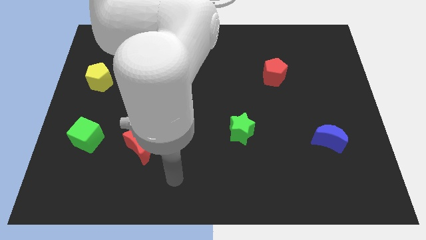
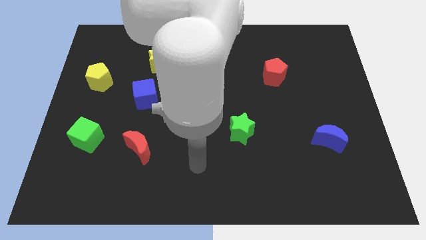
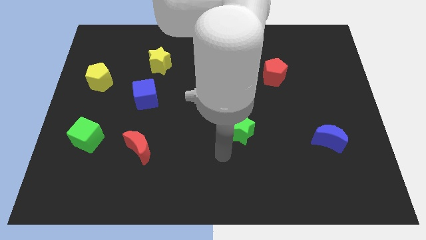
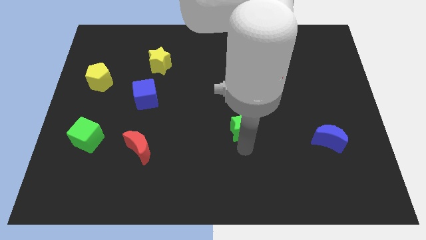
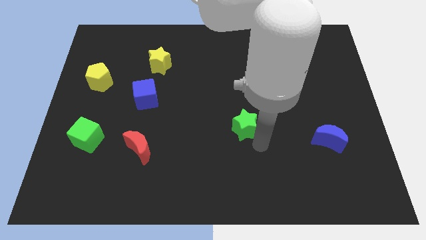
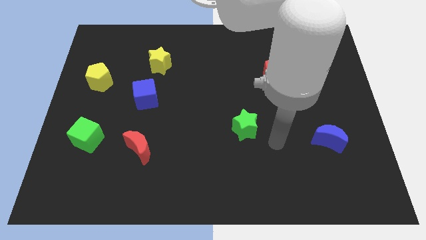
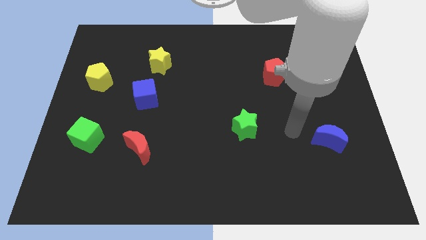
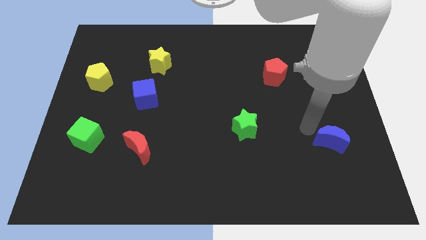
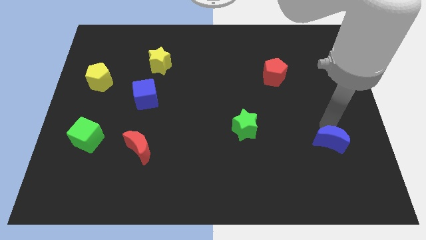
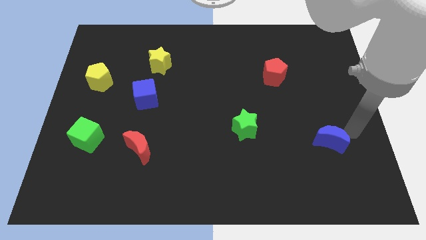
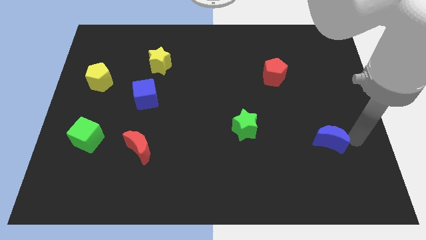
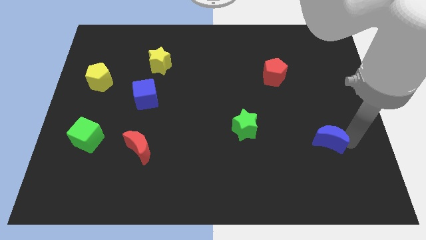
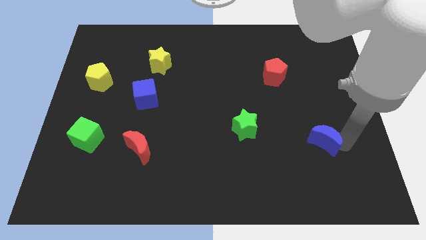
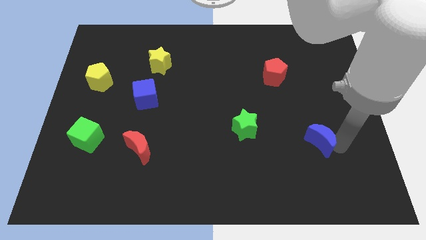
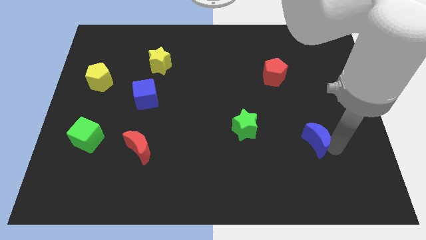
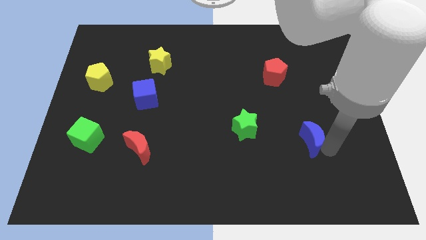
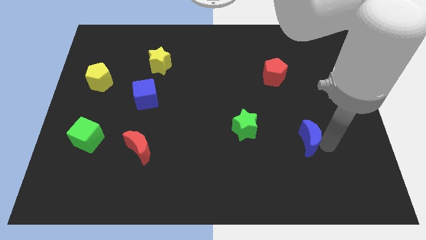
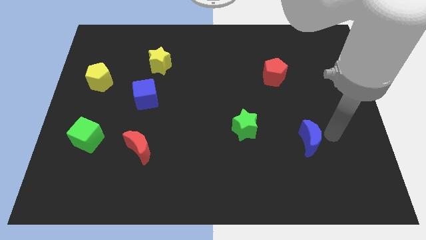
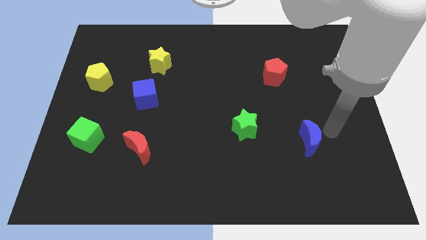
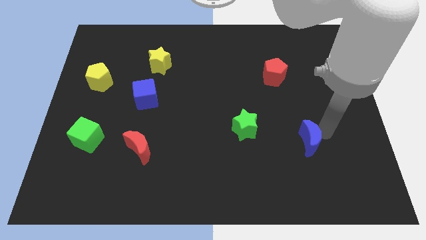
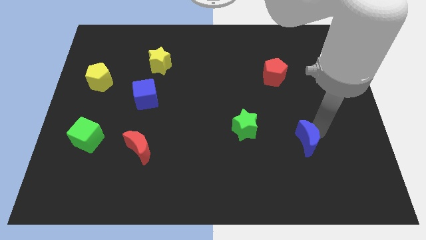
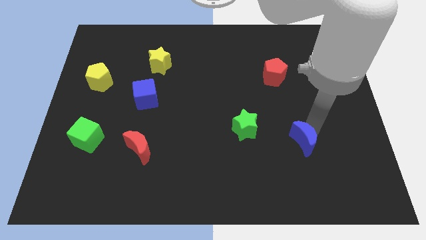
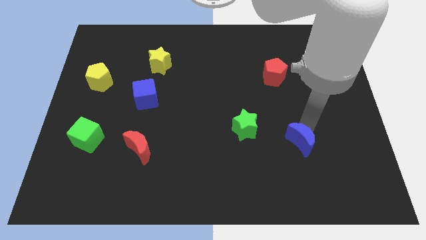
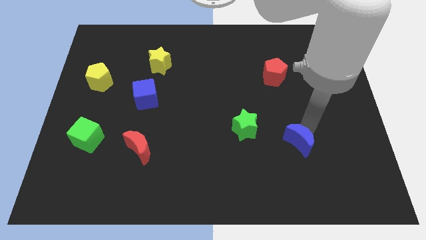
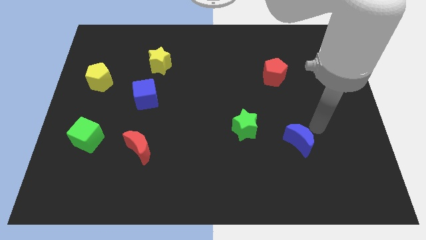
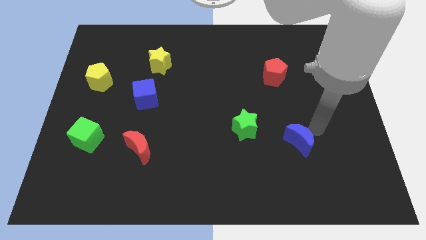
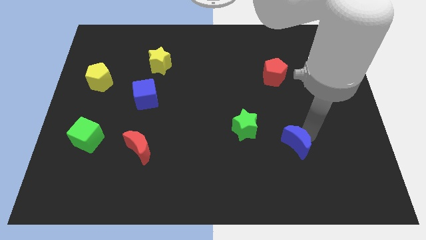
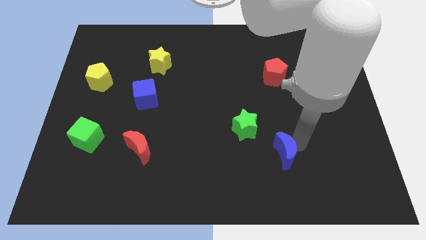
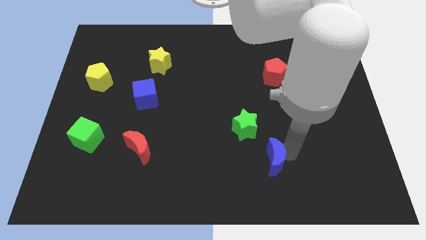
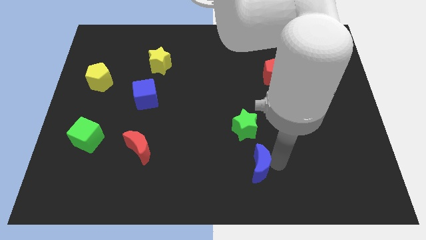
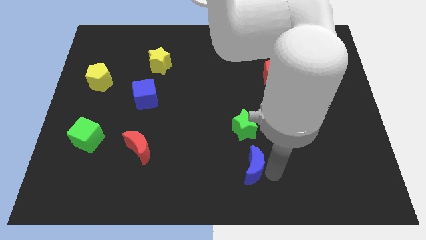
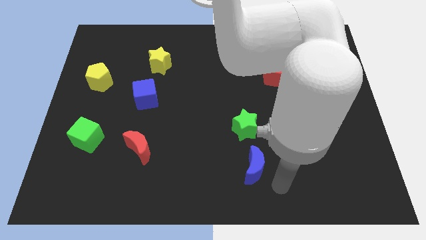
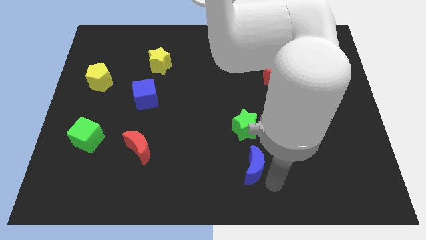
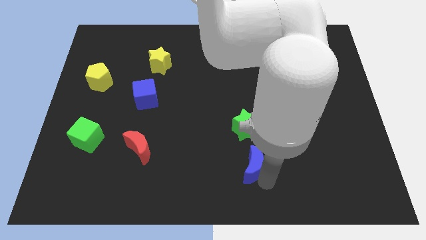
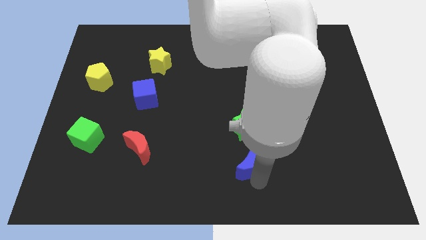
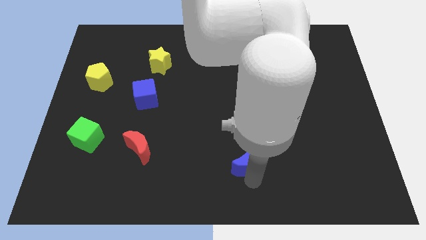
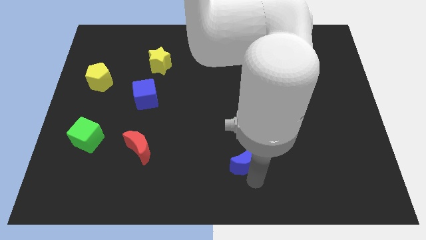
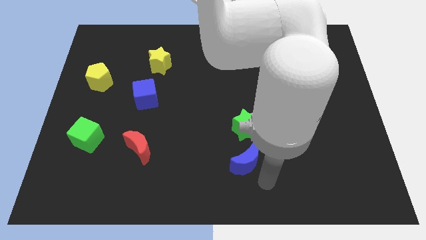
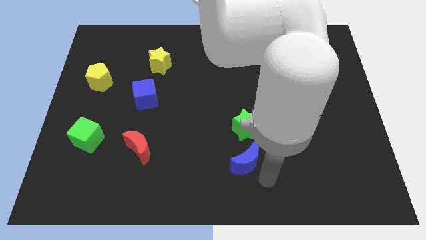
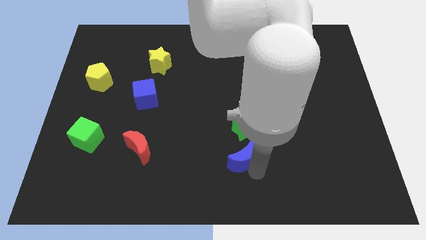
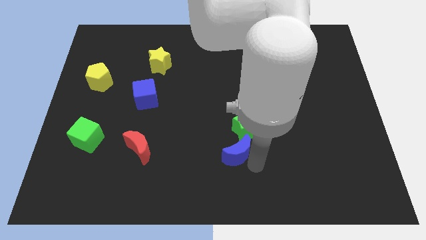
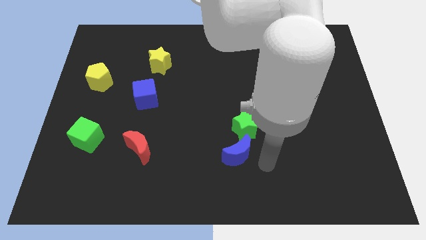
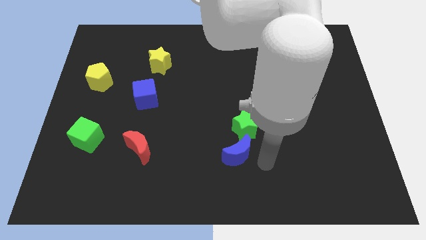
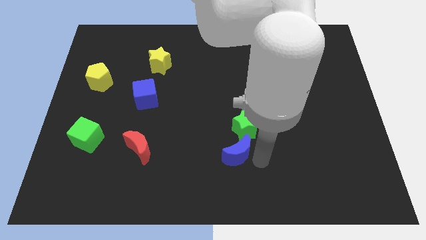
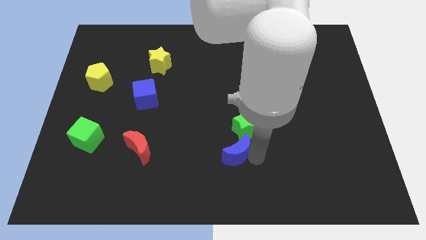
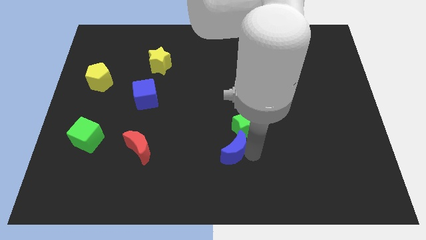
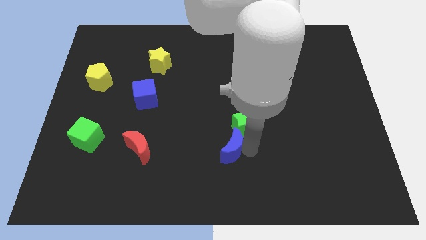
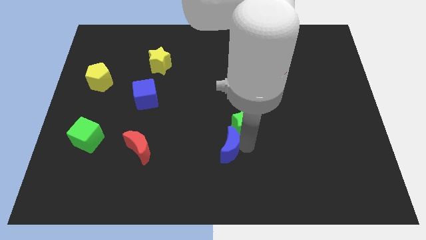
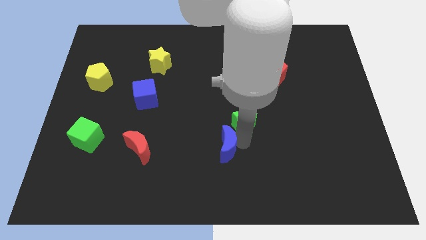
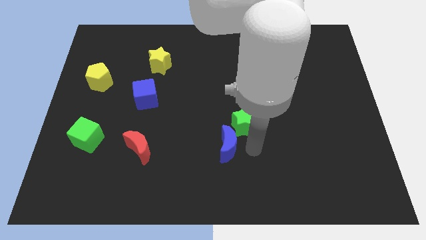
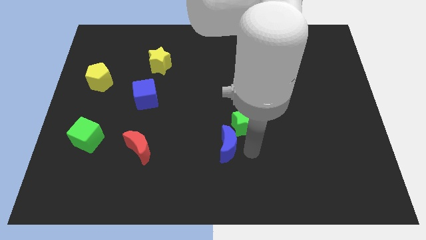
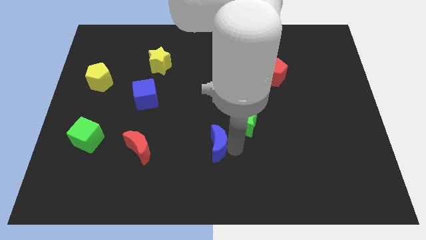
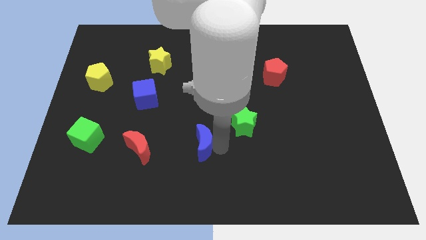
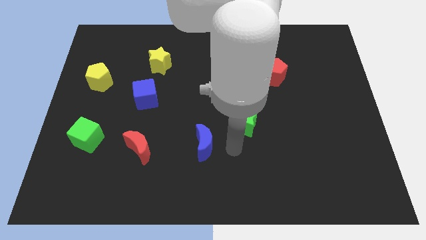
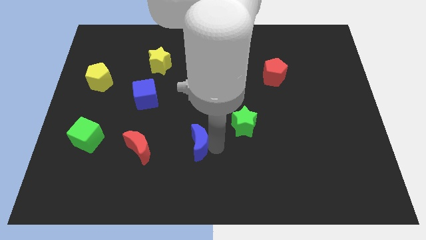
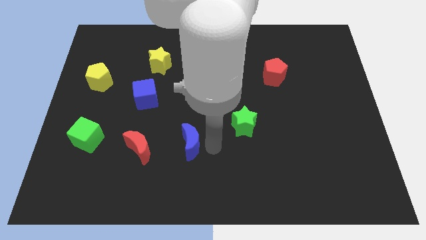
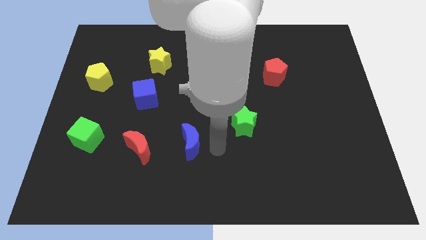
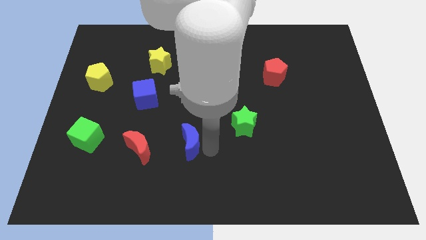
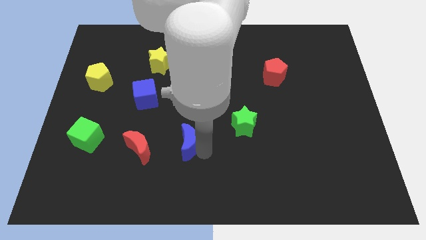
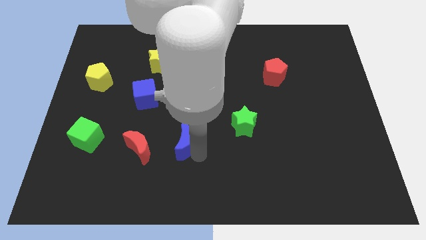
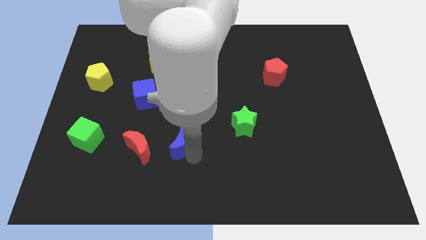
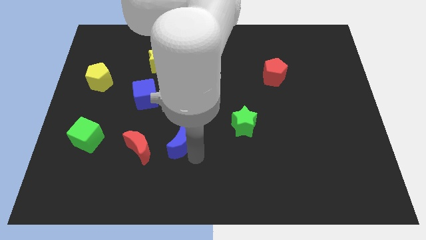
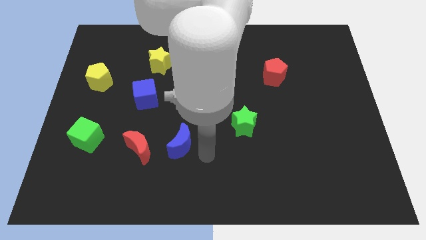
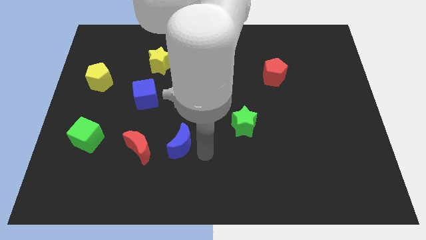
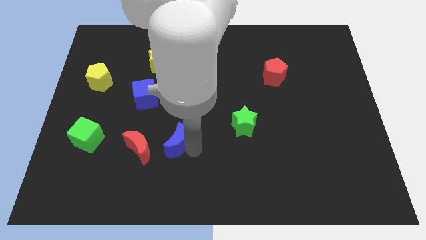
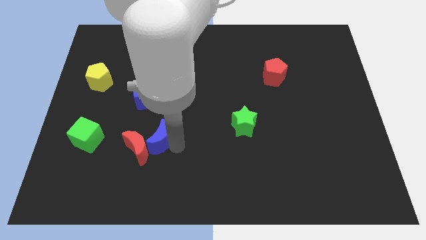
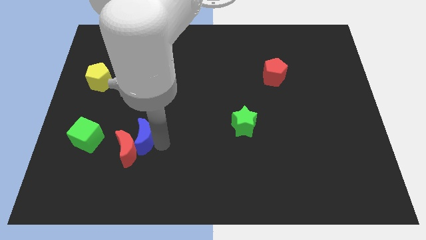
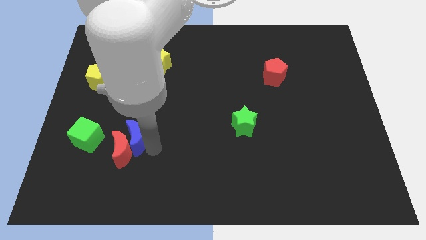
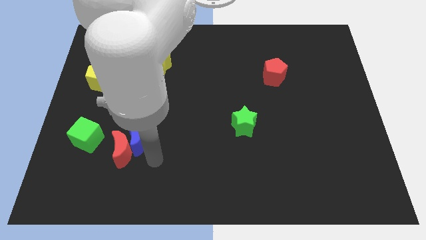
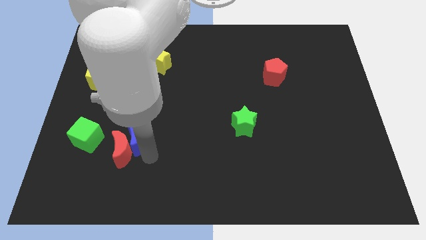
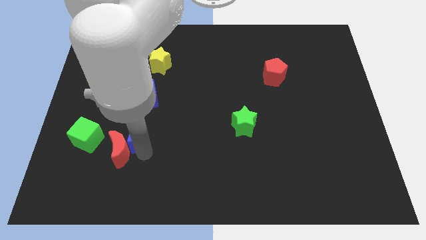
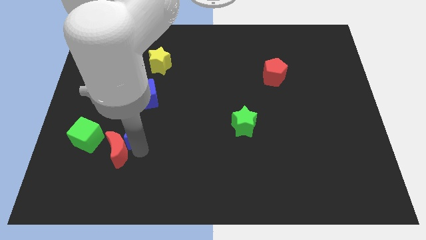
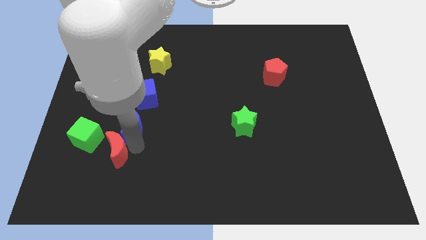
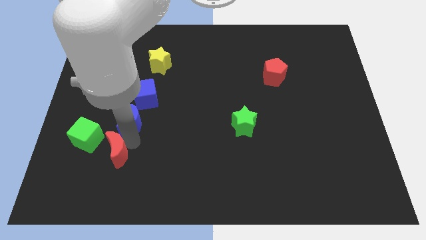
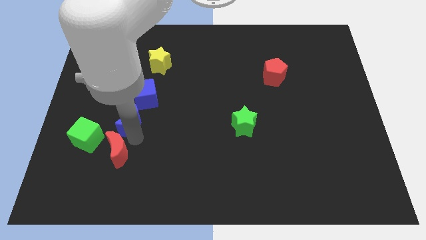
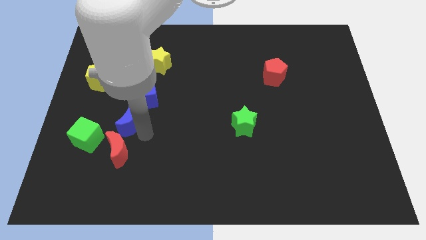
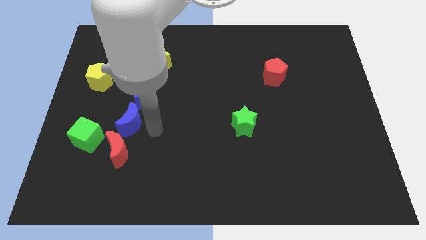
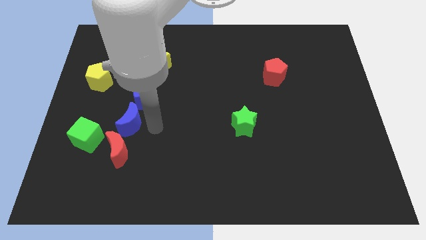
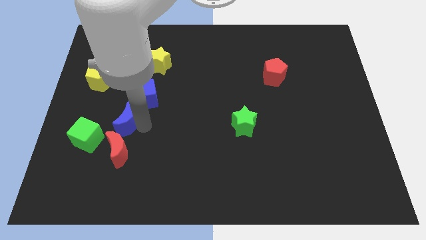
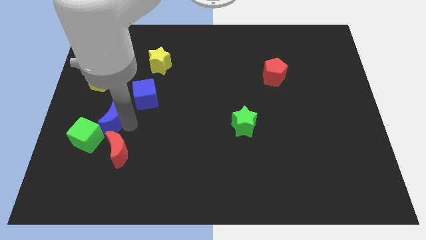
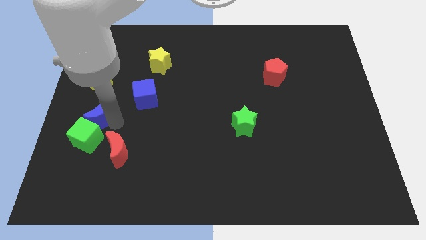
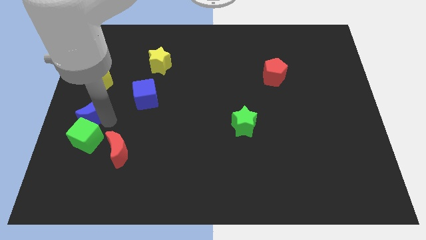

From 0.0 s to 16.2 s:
slide the blue moon to the center left
